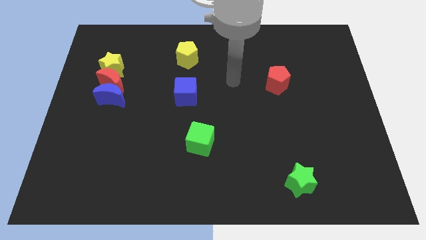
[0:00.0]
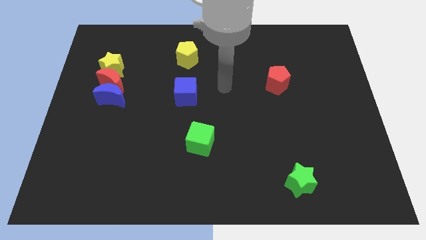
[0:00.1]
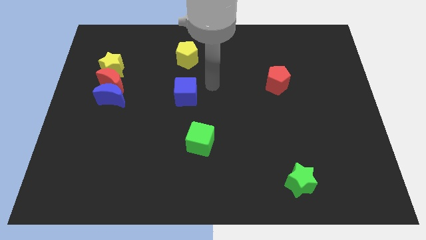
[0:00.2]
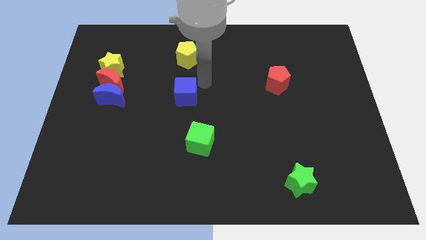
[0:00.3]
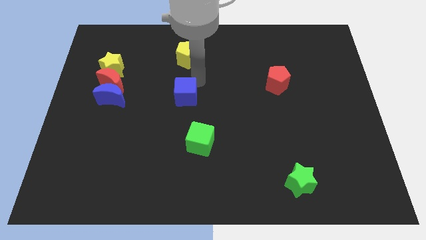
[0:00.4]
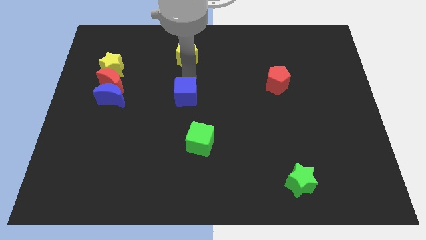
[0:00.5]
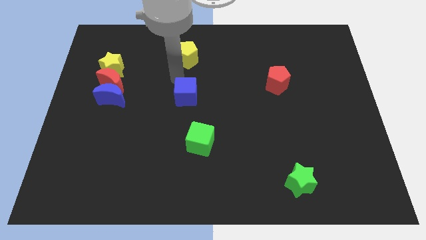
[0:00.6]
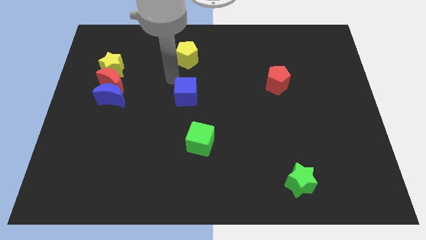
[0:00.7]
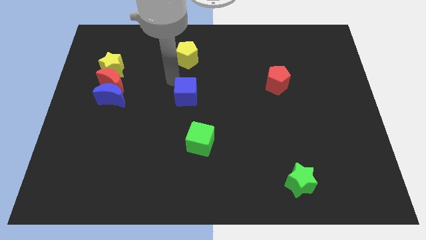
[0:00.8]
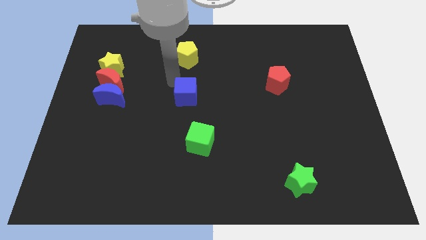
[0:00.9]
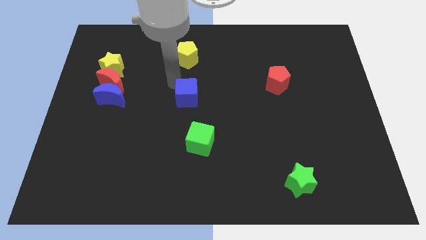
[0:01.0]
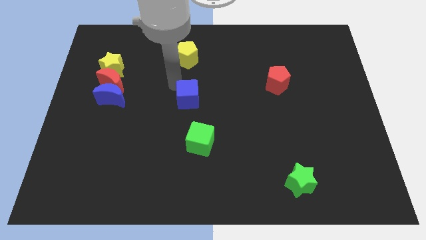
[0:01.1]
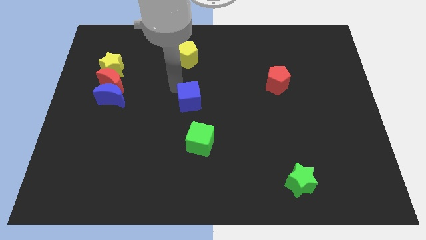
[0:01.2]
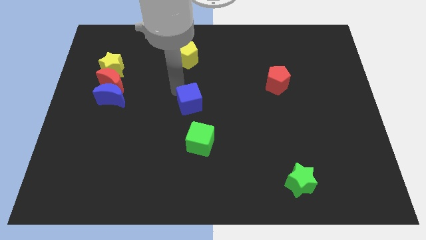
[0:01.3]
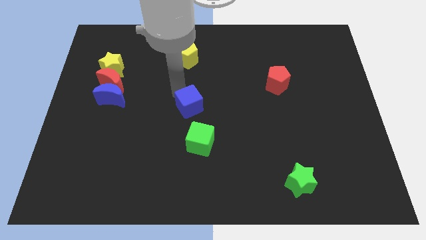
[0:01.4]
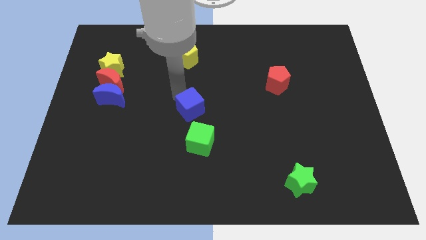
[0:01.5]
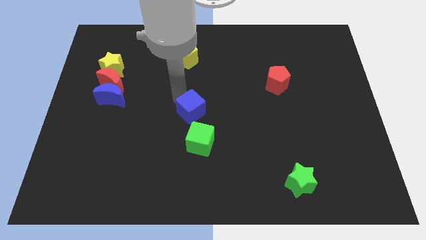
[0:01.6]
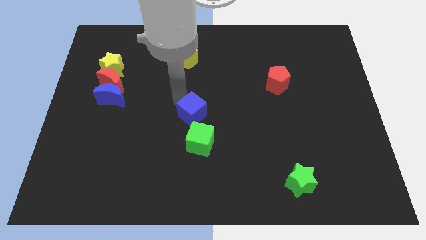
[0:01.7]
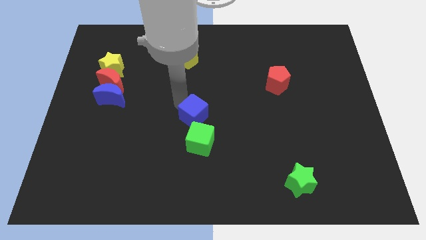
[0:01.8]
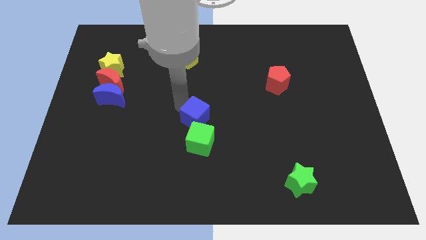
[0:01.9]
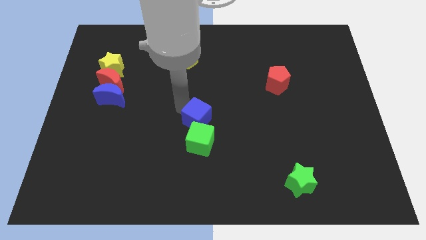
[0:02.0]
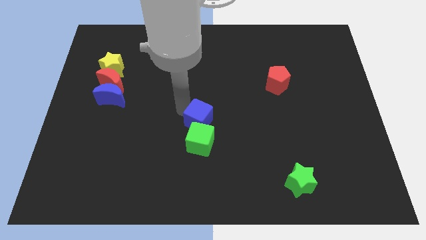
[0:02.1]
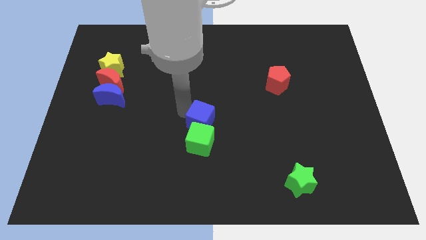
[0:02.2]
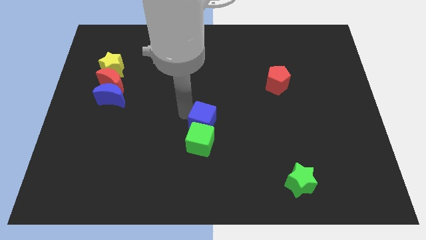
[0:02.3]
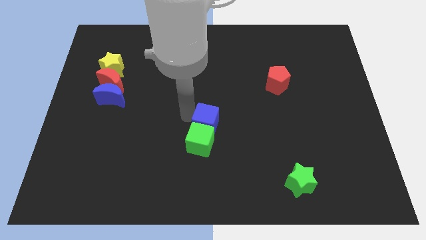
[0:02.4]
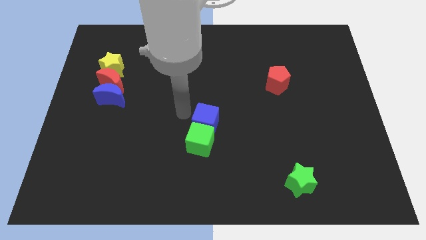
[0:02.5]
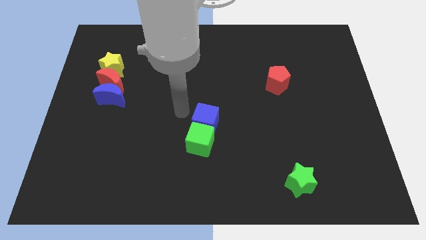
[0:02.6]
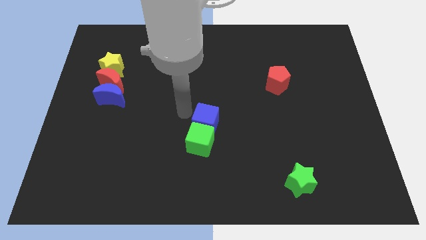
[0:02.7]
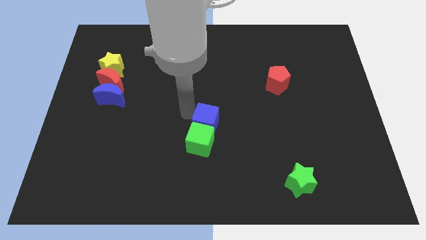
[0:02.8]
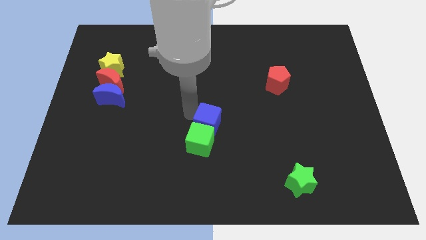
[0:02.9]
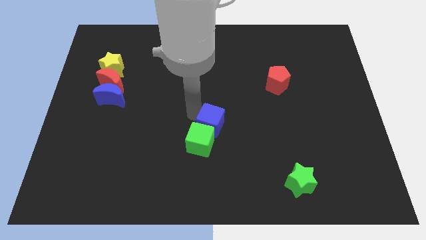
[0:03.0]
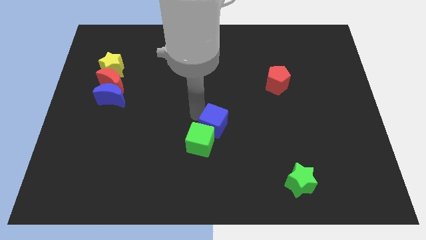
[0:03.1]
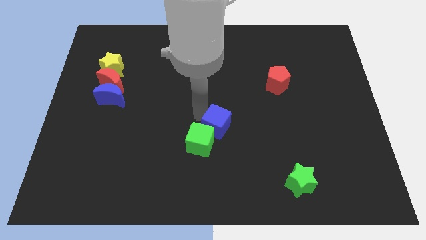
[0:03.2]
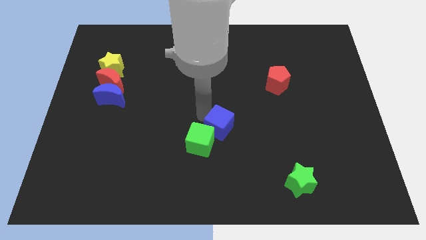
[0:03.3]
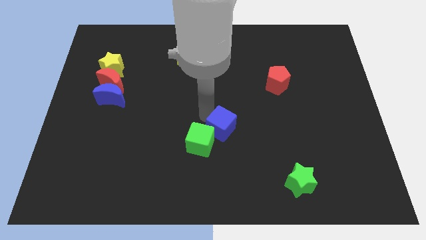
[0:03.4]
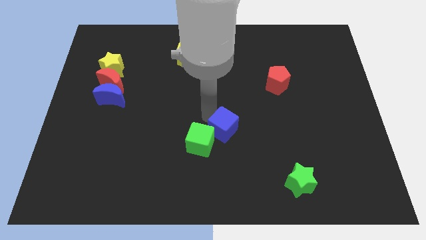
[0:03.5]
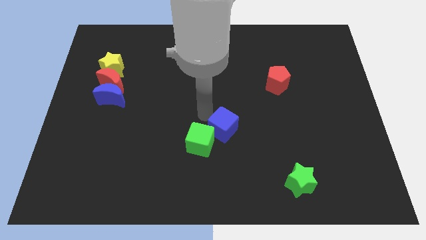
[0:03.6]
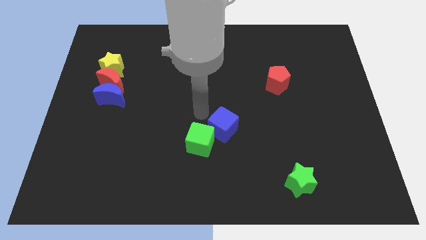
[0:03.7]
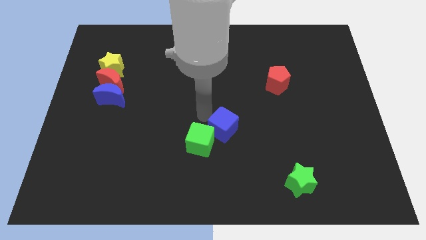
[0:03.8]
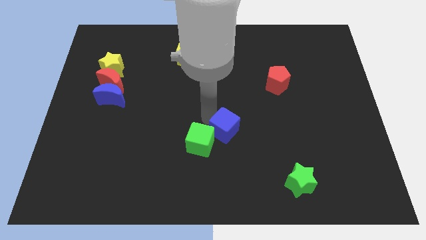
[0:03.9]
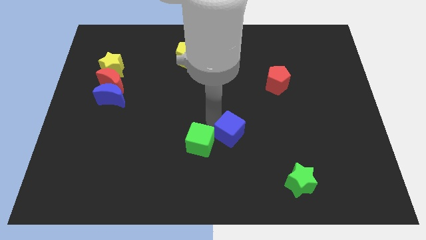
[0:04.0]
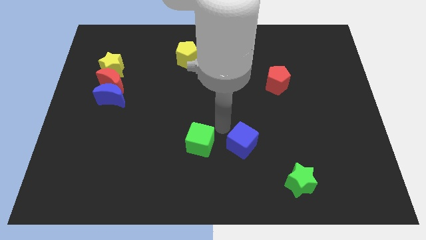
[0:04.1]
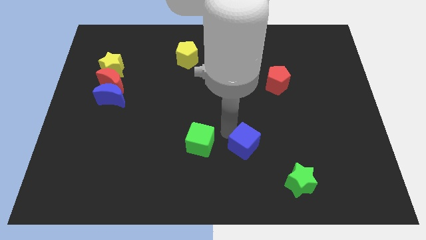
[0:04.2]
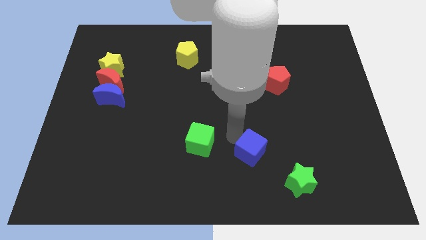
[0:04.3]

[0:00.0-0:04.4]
put the blue cube to the top left side of the green star

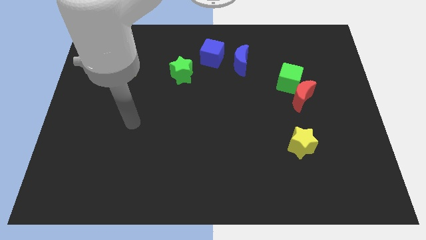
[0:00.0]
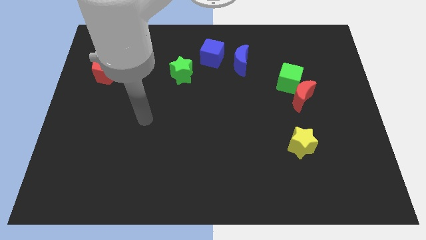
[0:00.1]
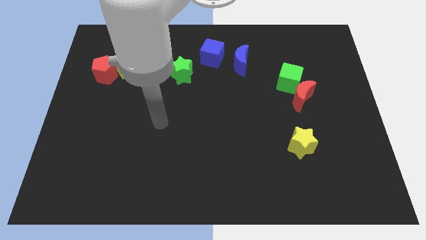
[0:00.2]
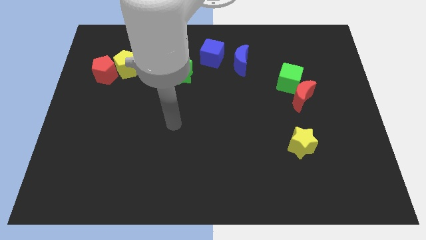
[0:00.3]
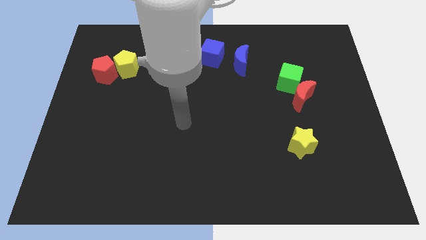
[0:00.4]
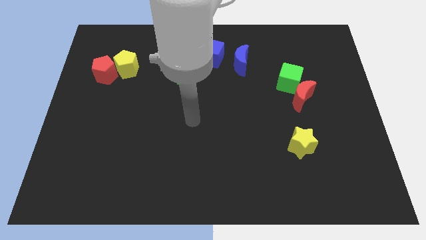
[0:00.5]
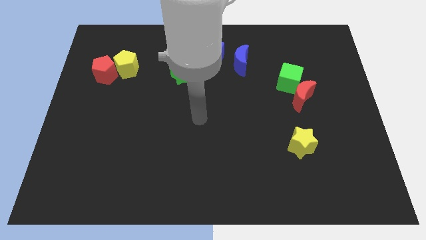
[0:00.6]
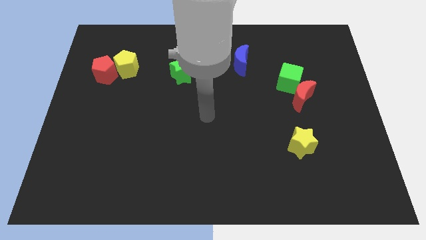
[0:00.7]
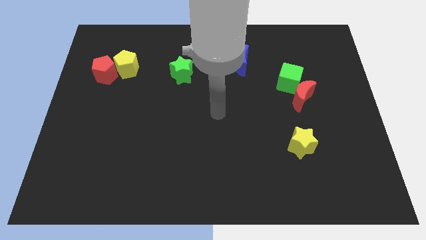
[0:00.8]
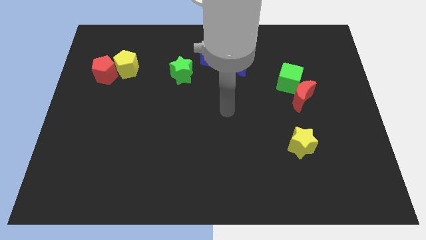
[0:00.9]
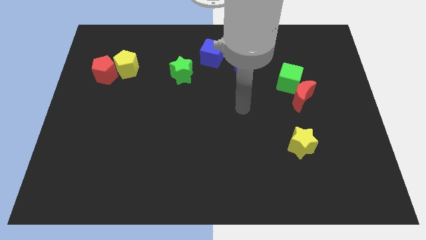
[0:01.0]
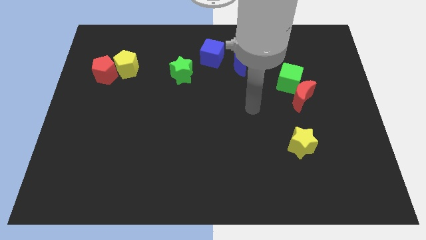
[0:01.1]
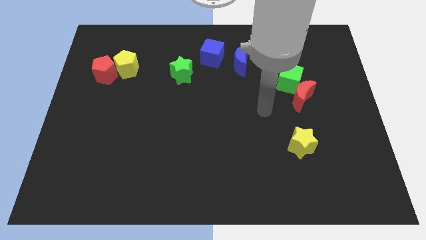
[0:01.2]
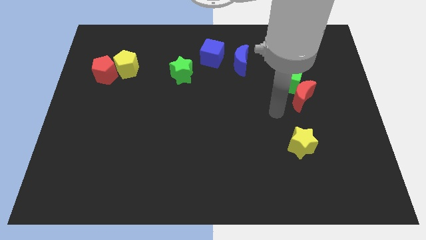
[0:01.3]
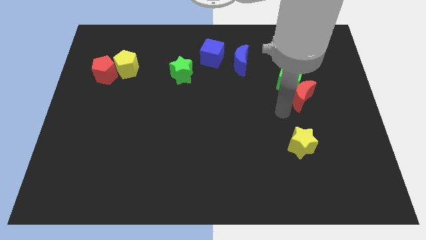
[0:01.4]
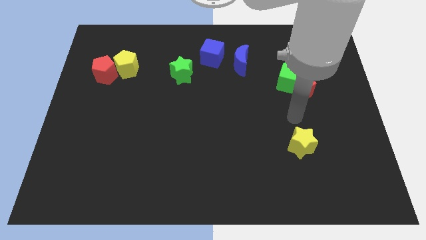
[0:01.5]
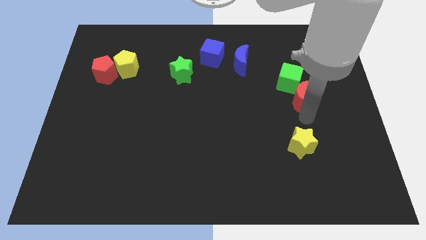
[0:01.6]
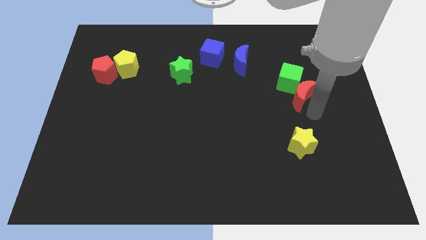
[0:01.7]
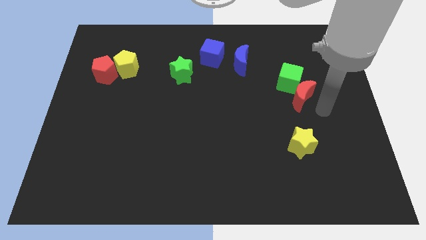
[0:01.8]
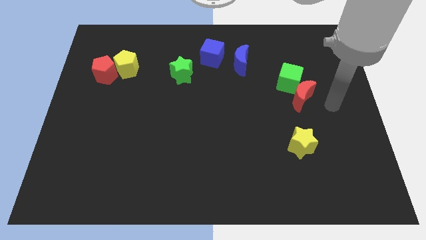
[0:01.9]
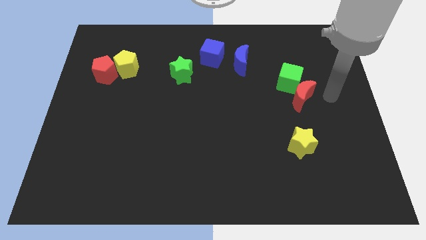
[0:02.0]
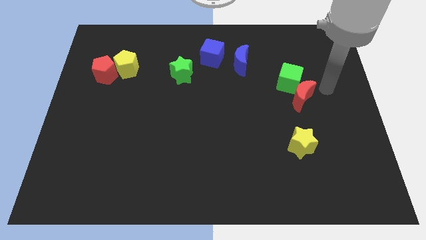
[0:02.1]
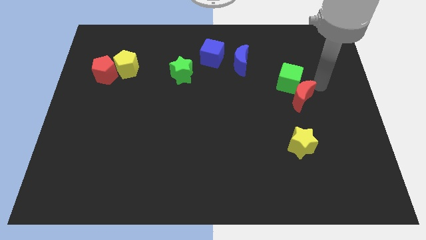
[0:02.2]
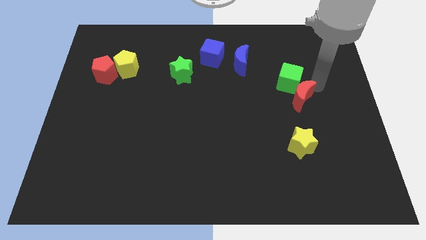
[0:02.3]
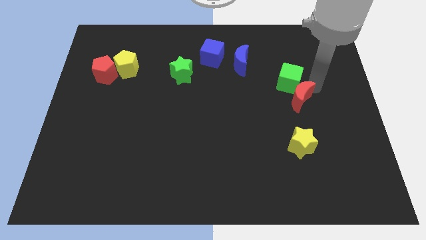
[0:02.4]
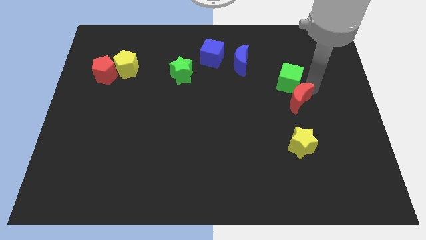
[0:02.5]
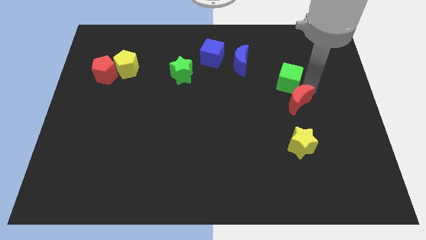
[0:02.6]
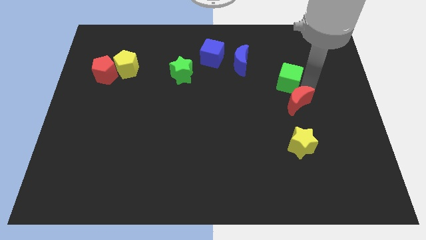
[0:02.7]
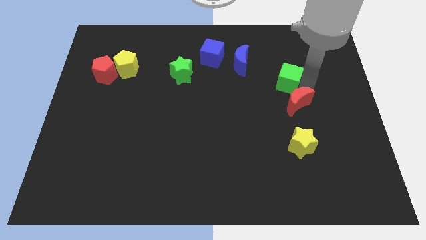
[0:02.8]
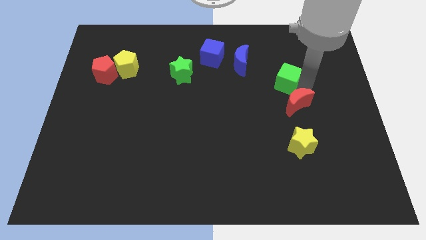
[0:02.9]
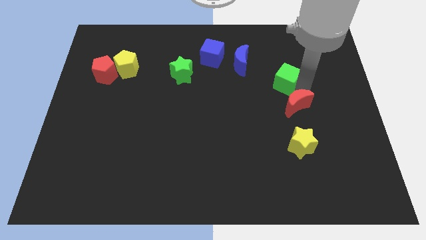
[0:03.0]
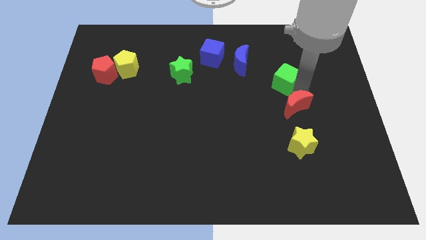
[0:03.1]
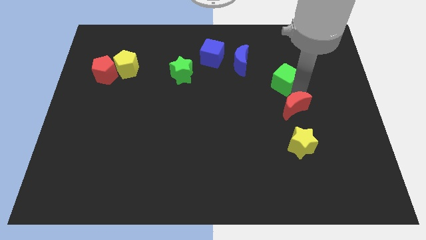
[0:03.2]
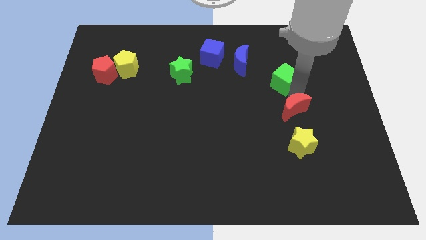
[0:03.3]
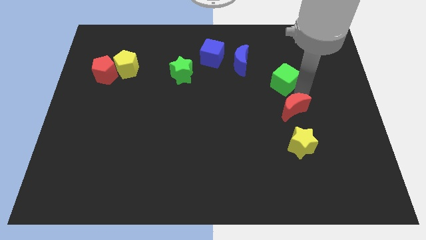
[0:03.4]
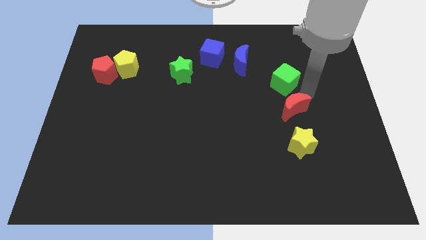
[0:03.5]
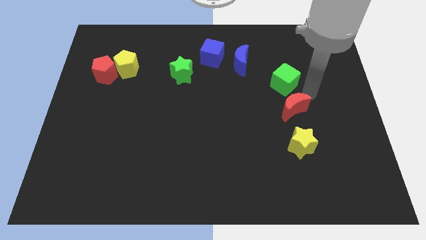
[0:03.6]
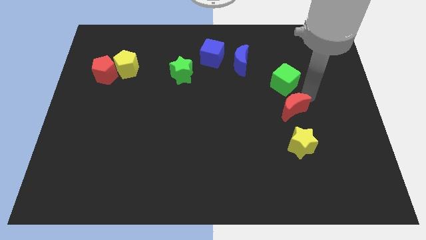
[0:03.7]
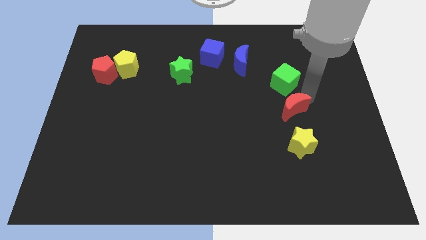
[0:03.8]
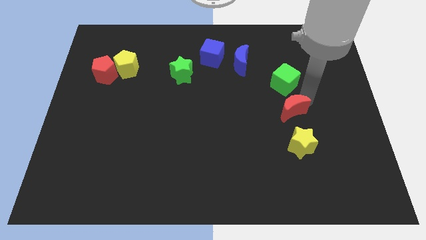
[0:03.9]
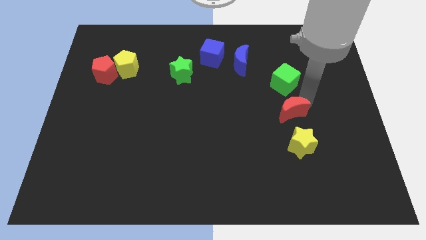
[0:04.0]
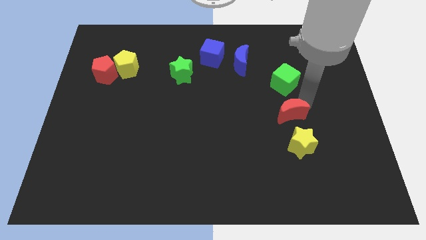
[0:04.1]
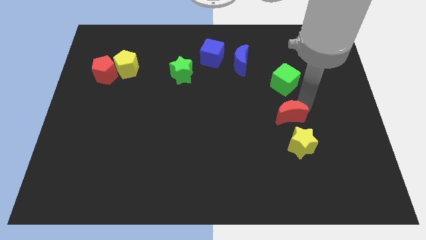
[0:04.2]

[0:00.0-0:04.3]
push the red moon to the top left side of the yellow star
